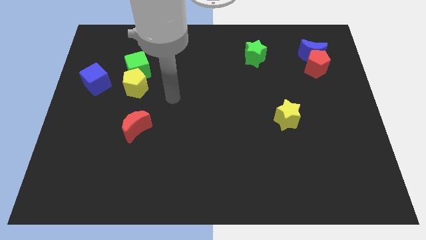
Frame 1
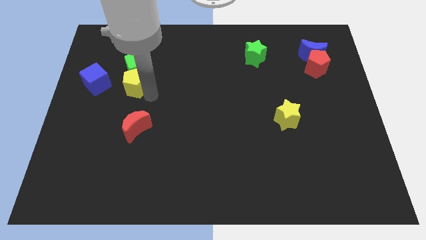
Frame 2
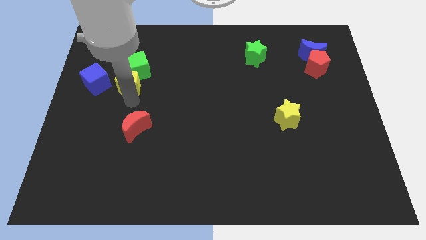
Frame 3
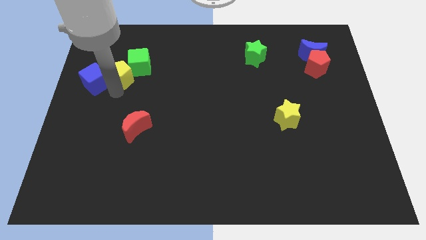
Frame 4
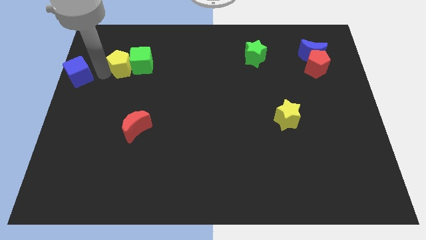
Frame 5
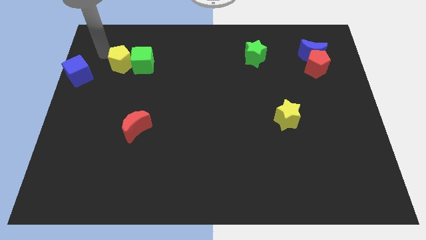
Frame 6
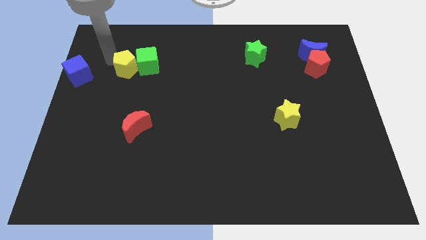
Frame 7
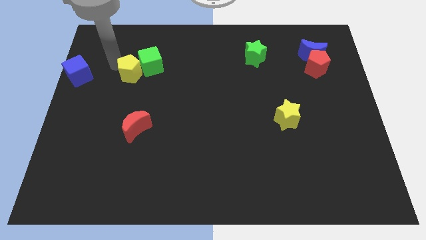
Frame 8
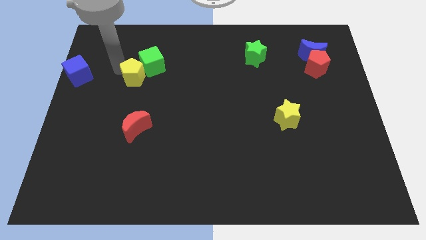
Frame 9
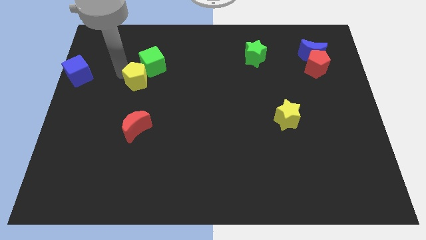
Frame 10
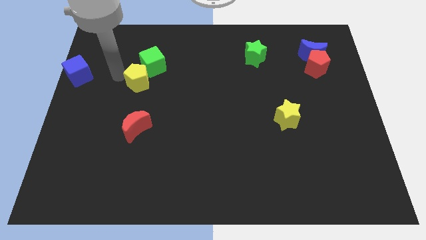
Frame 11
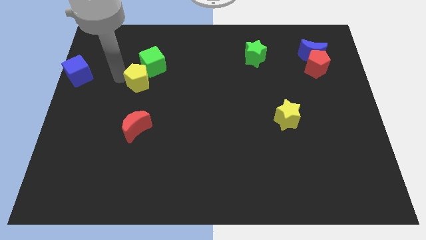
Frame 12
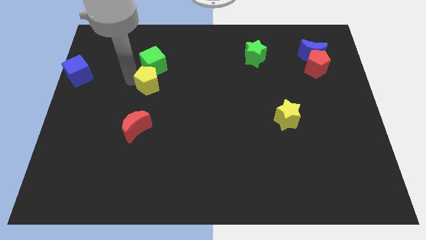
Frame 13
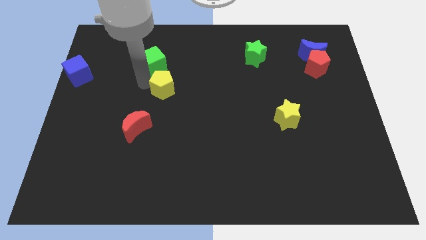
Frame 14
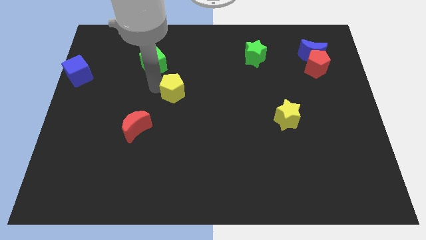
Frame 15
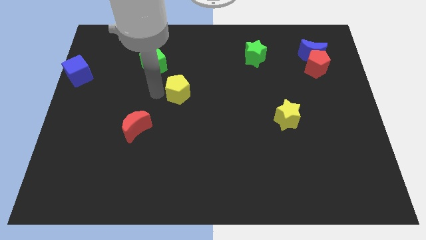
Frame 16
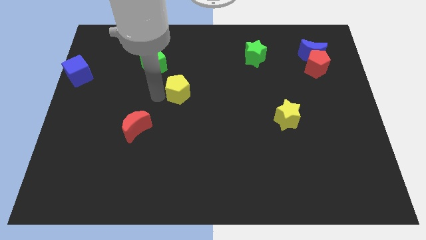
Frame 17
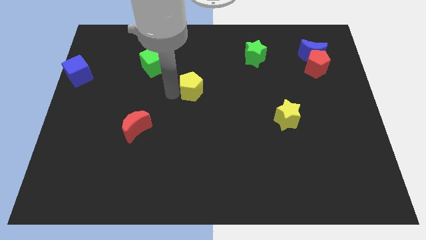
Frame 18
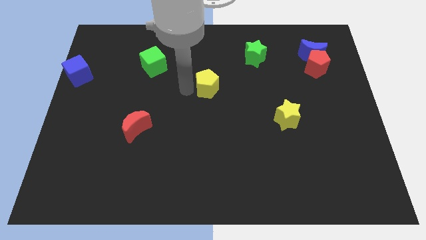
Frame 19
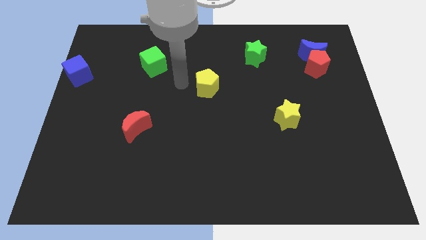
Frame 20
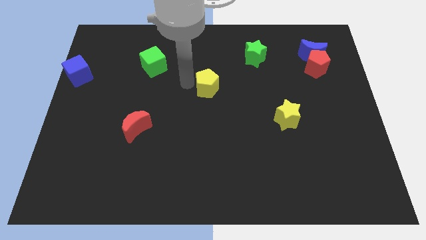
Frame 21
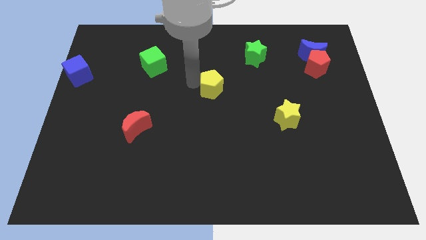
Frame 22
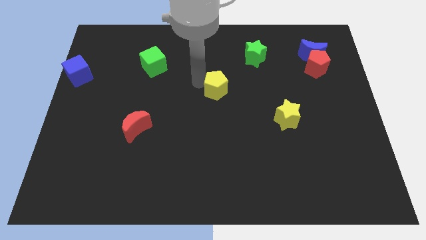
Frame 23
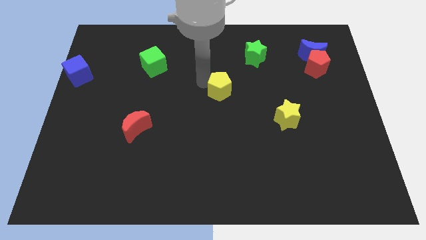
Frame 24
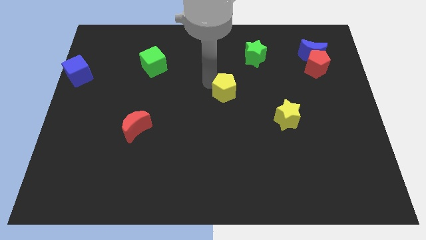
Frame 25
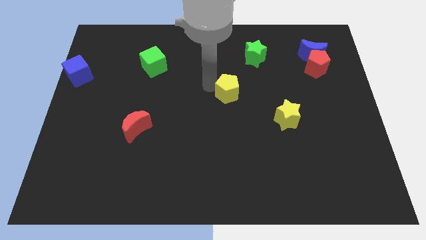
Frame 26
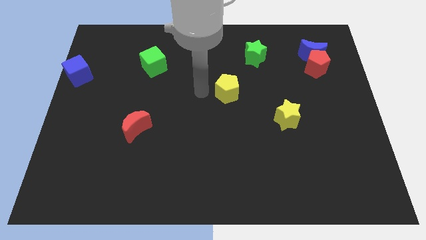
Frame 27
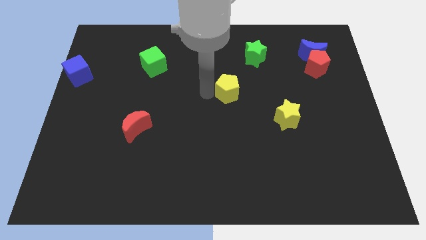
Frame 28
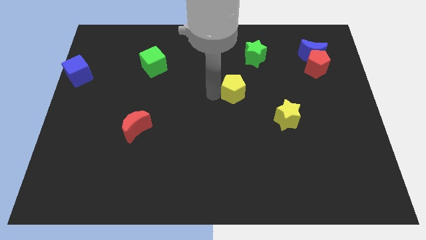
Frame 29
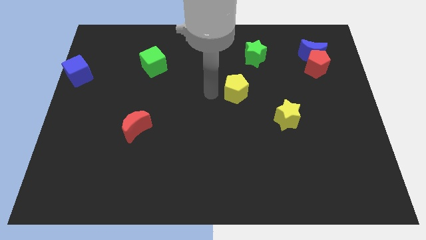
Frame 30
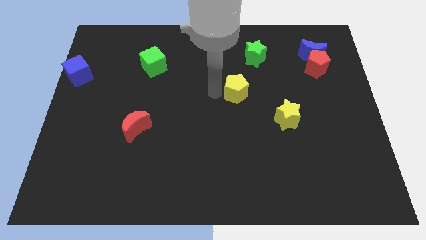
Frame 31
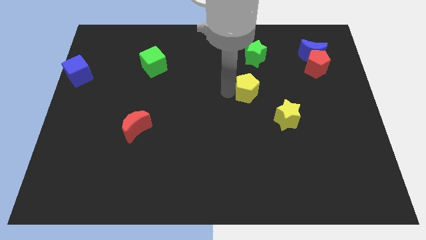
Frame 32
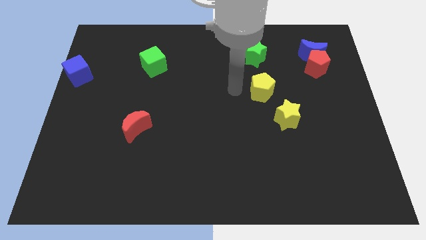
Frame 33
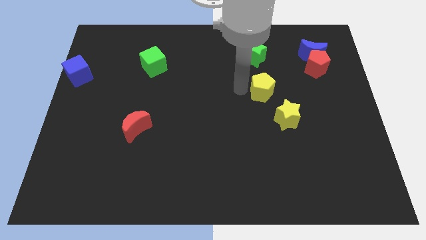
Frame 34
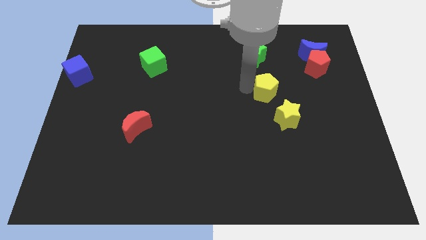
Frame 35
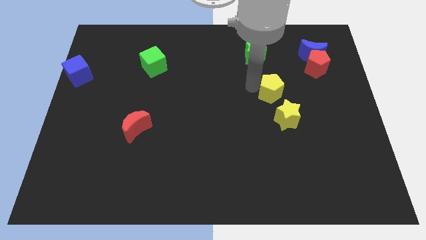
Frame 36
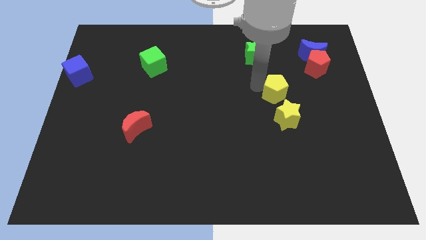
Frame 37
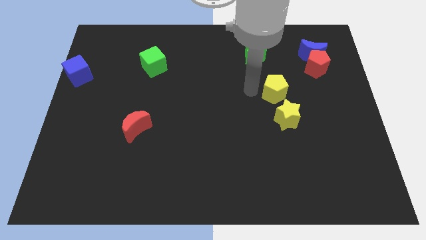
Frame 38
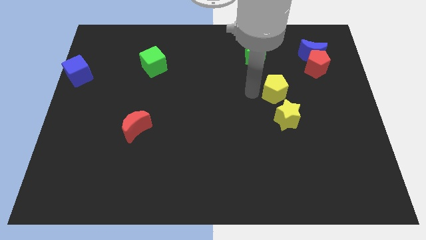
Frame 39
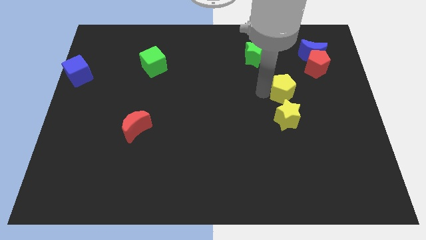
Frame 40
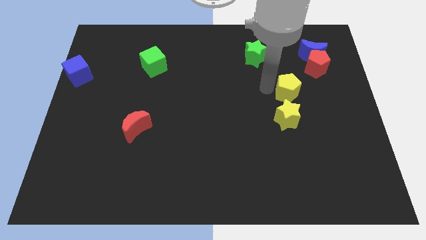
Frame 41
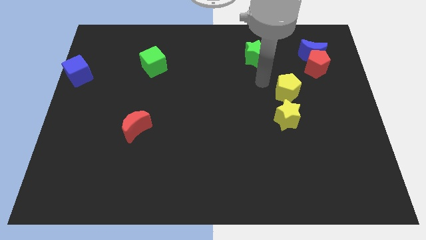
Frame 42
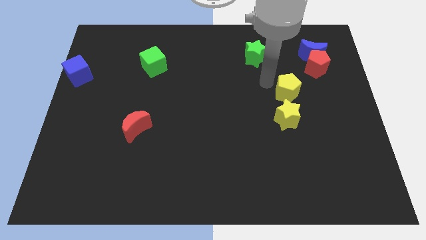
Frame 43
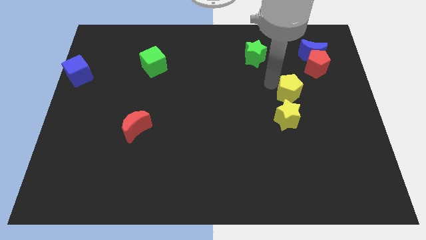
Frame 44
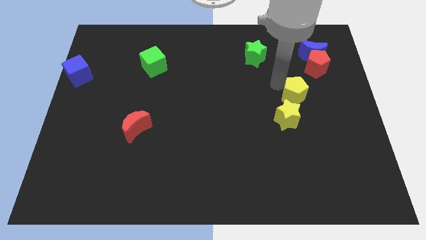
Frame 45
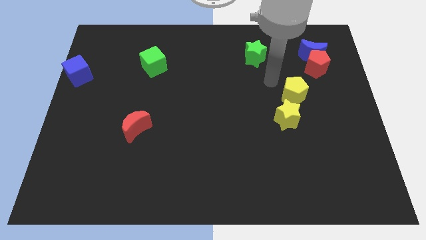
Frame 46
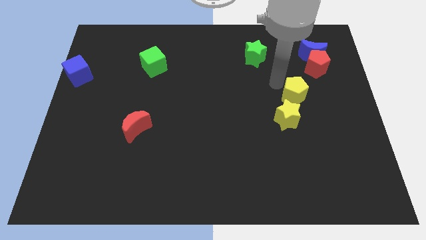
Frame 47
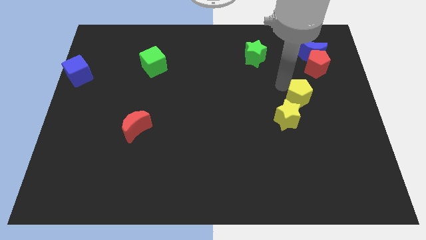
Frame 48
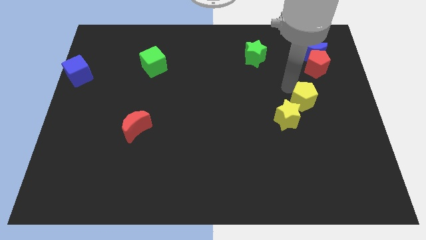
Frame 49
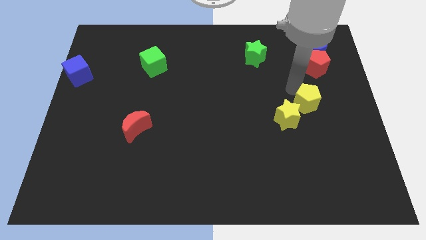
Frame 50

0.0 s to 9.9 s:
put the yellow pentagon just right of the yellow star

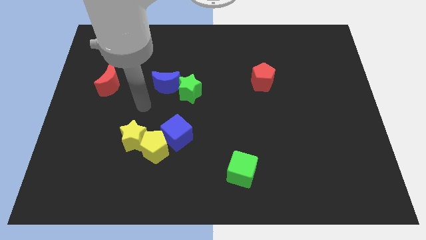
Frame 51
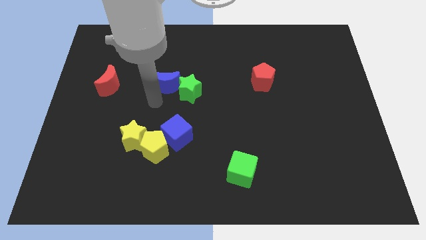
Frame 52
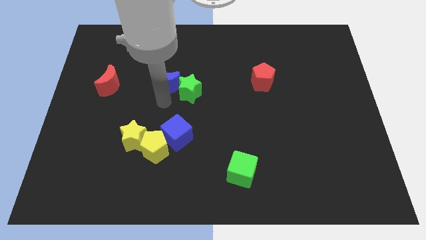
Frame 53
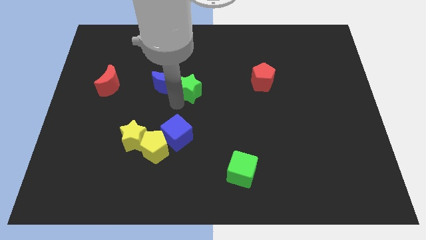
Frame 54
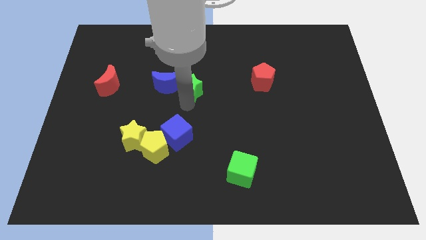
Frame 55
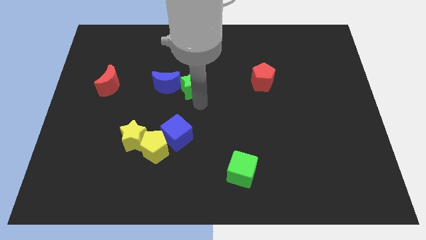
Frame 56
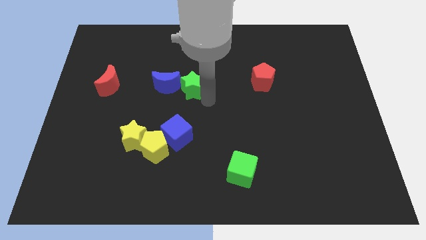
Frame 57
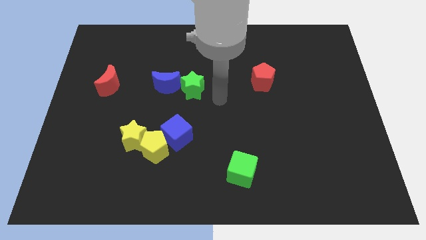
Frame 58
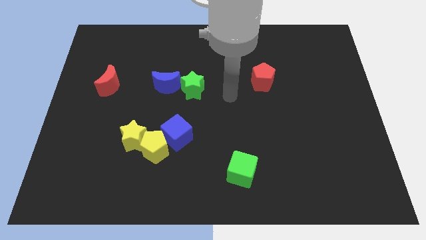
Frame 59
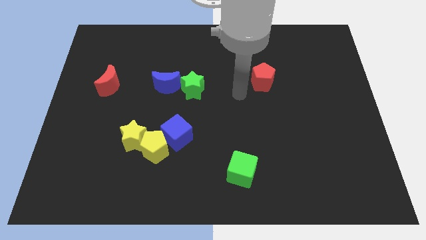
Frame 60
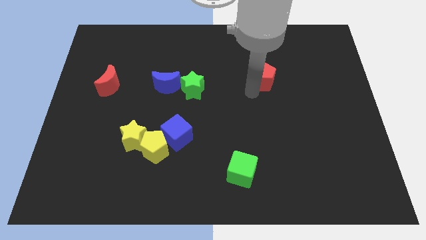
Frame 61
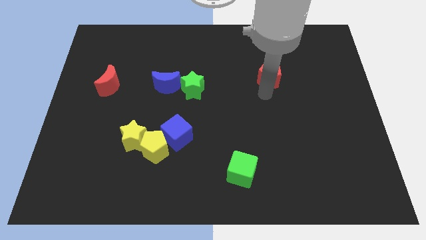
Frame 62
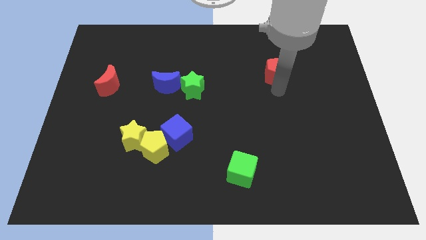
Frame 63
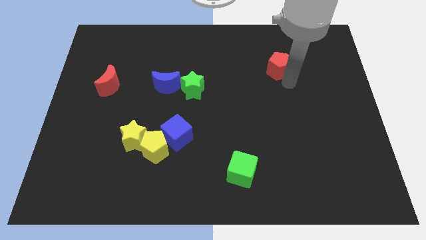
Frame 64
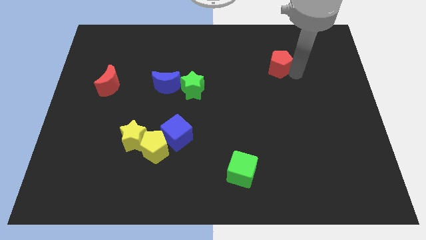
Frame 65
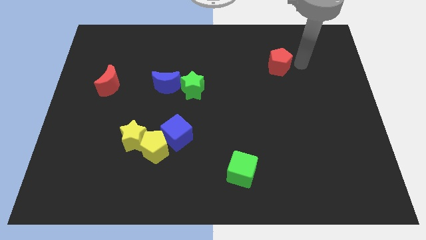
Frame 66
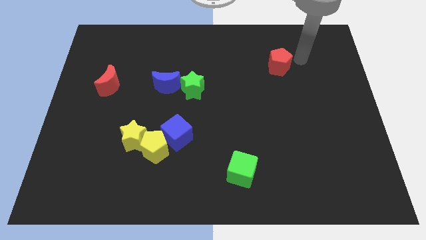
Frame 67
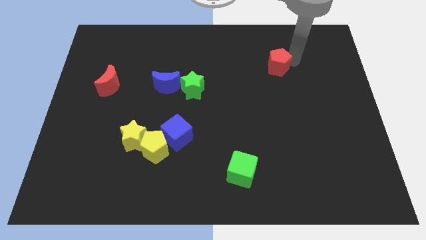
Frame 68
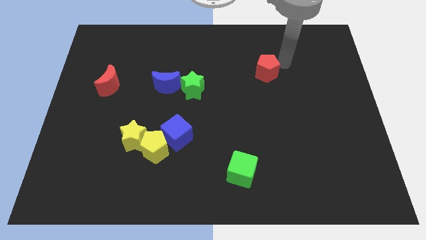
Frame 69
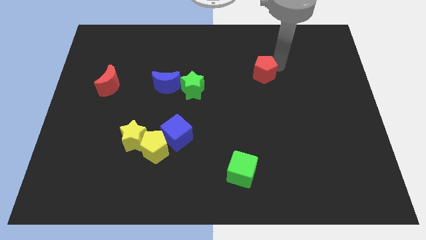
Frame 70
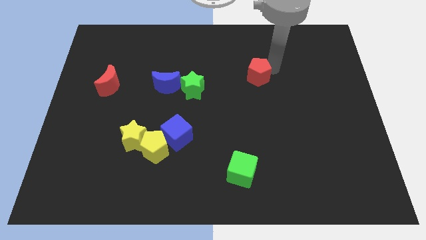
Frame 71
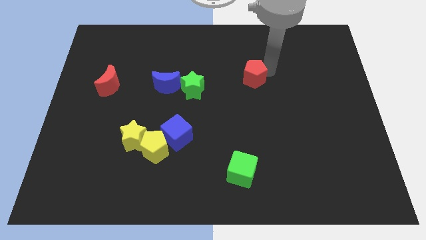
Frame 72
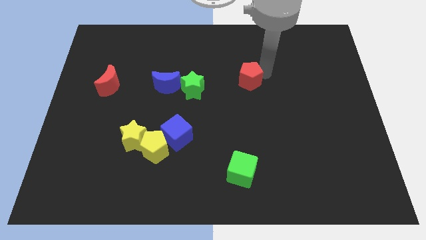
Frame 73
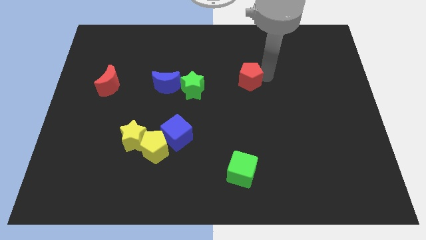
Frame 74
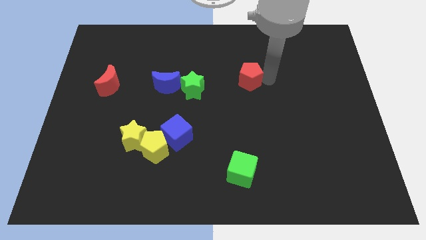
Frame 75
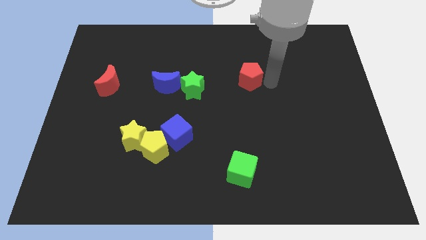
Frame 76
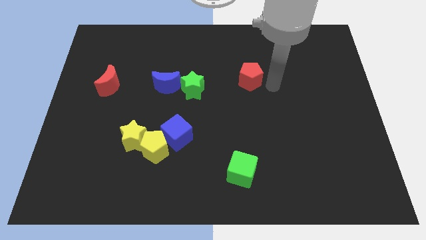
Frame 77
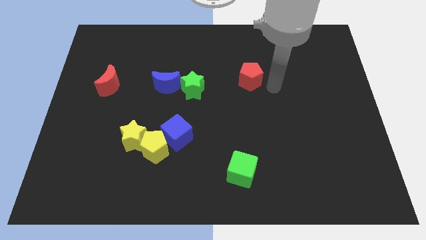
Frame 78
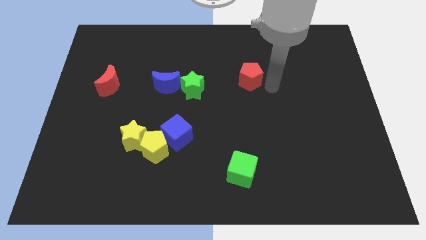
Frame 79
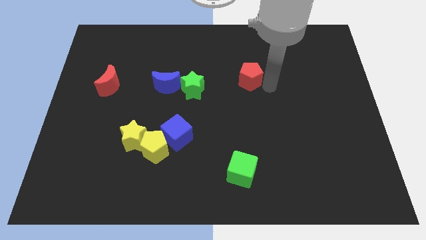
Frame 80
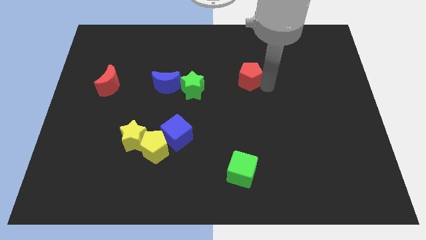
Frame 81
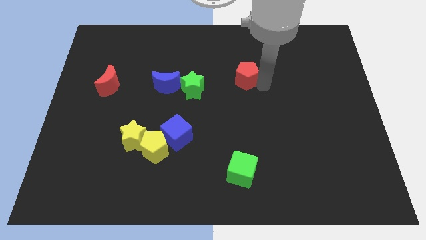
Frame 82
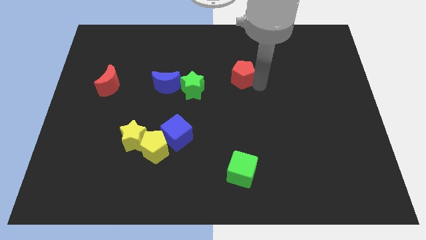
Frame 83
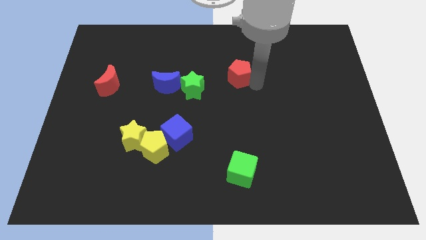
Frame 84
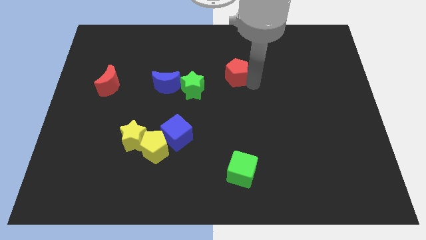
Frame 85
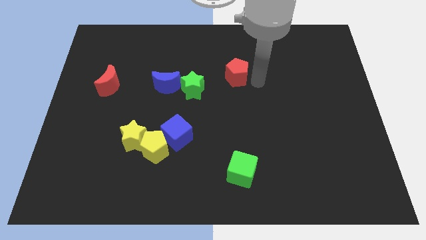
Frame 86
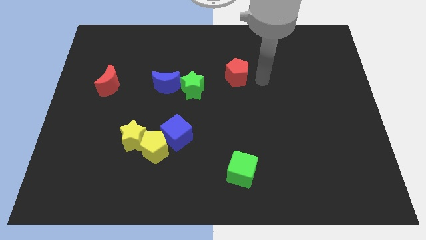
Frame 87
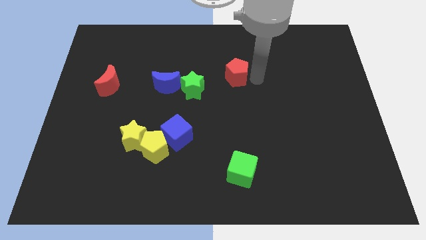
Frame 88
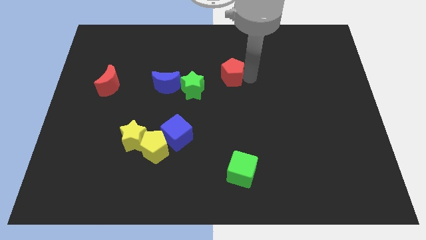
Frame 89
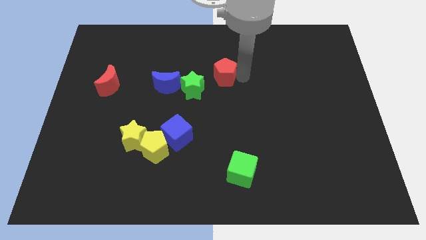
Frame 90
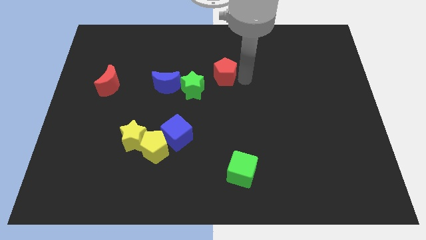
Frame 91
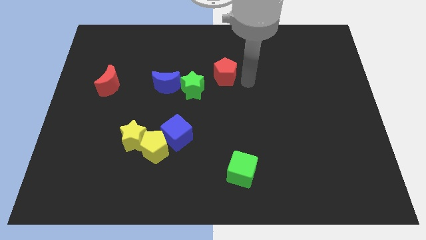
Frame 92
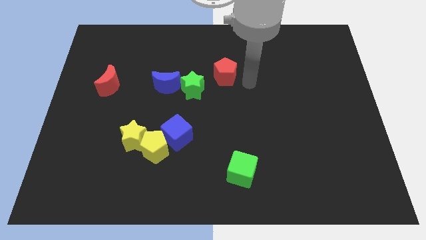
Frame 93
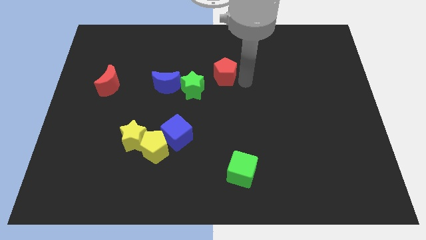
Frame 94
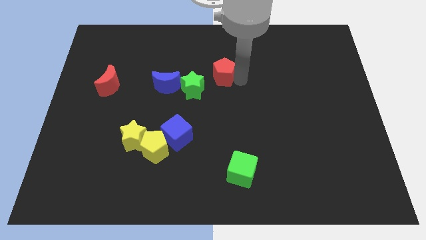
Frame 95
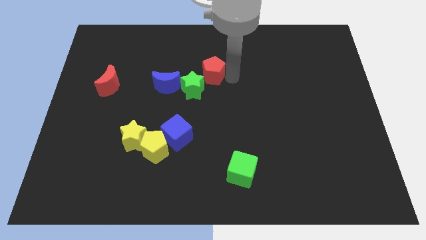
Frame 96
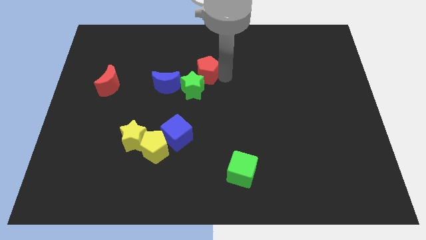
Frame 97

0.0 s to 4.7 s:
put the red pentagon above the green star
